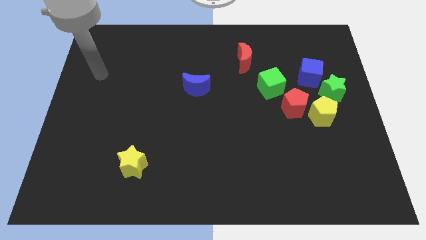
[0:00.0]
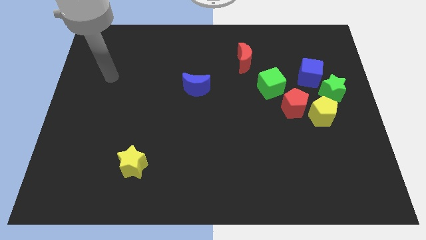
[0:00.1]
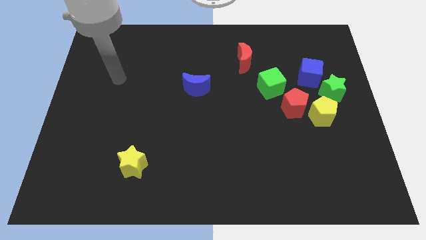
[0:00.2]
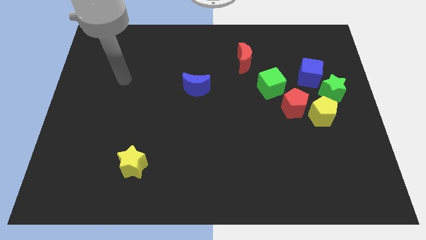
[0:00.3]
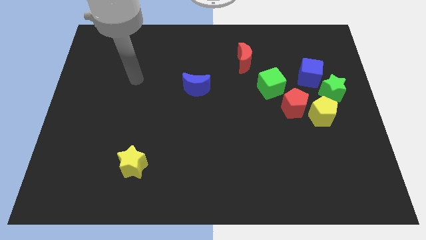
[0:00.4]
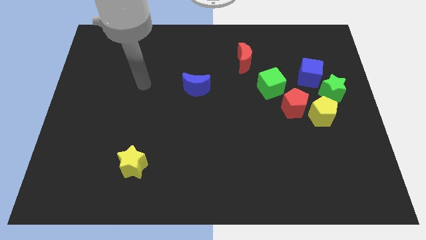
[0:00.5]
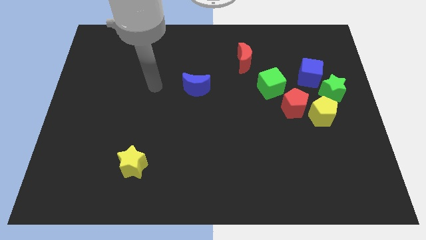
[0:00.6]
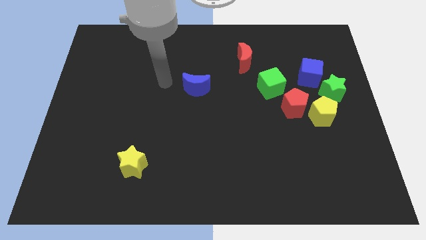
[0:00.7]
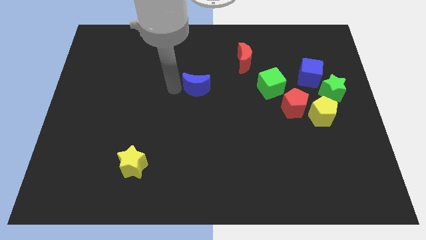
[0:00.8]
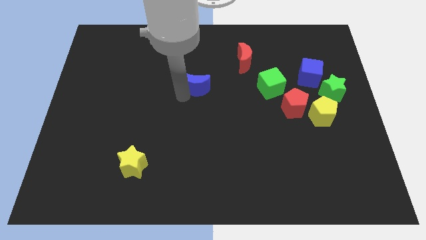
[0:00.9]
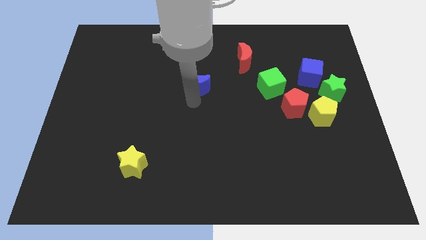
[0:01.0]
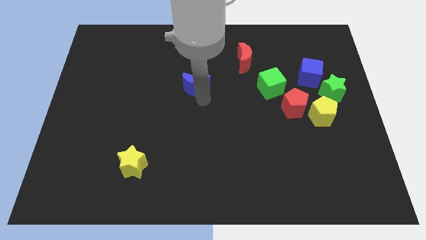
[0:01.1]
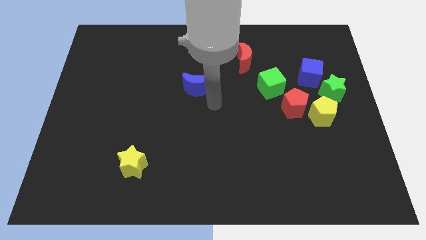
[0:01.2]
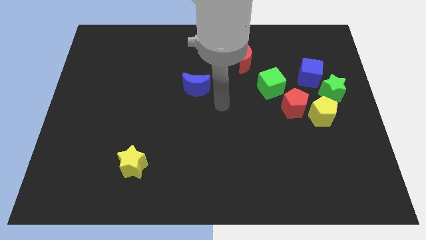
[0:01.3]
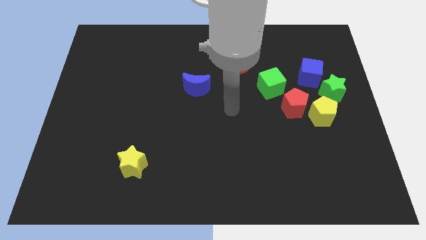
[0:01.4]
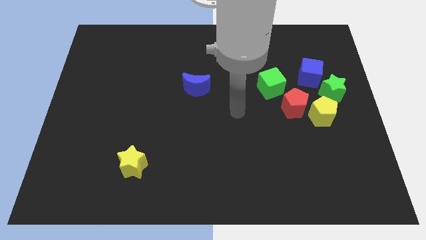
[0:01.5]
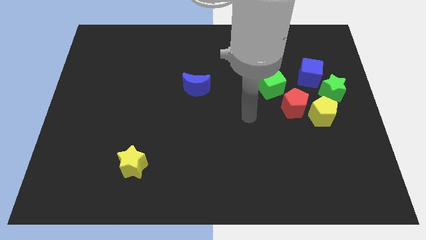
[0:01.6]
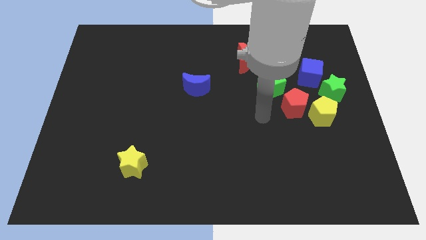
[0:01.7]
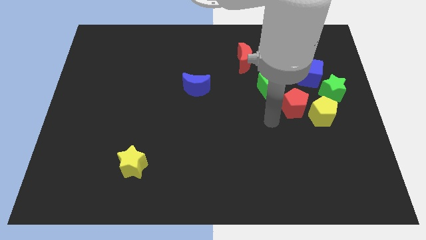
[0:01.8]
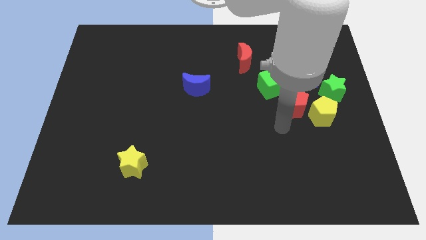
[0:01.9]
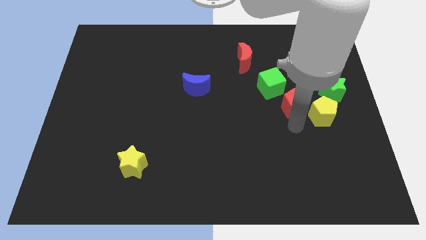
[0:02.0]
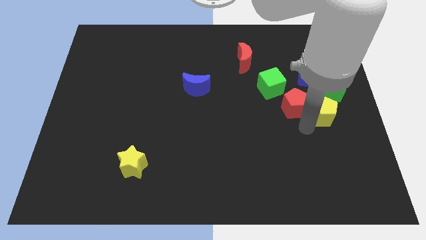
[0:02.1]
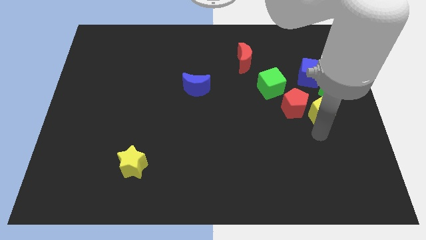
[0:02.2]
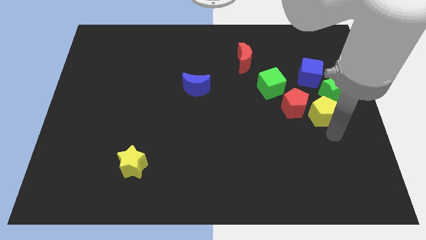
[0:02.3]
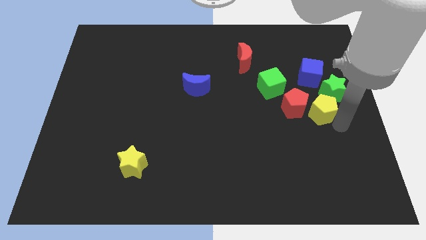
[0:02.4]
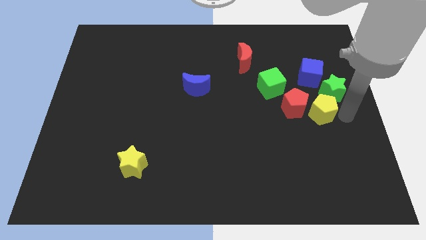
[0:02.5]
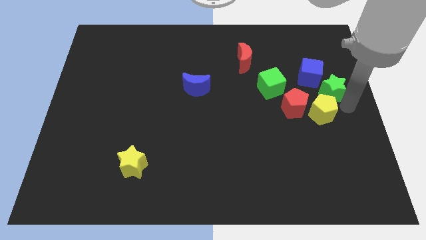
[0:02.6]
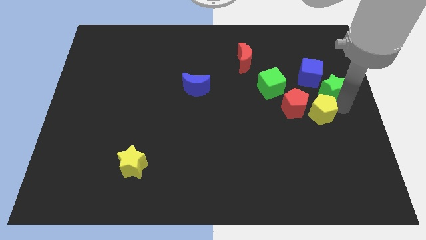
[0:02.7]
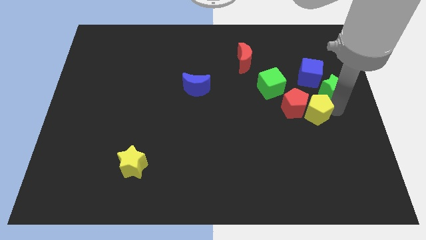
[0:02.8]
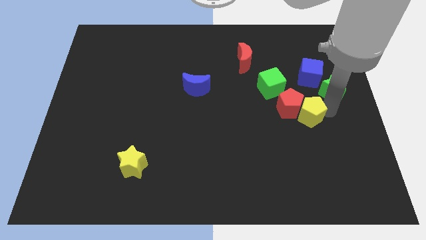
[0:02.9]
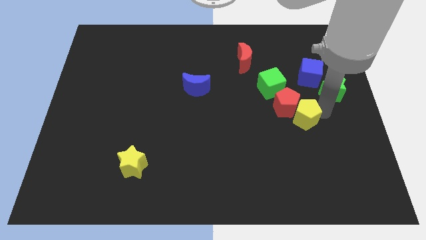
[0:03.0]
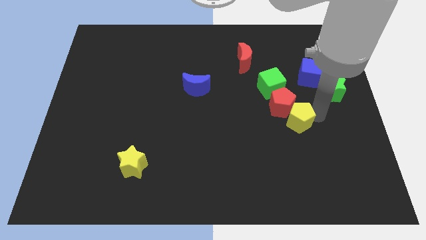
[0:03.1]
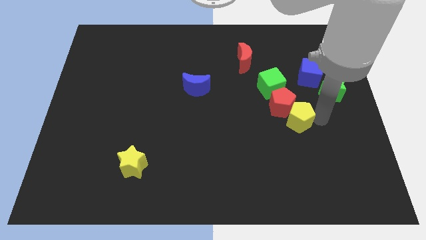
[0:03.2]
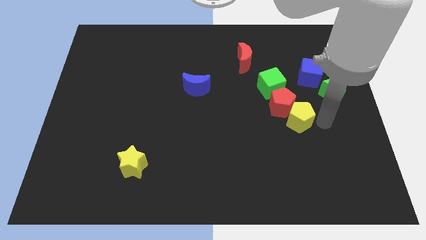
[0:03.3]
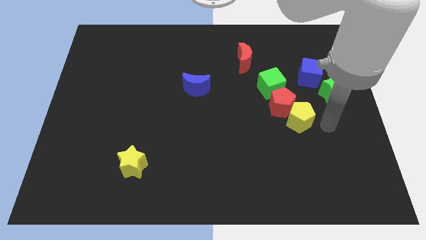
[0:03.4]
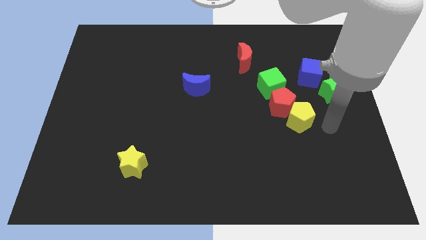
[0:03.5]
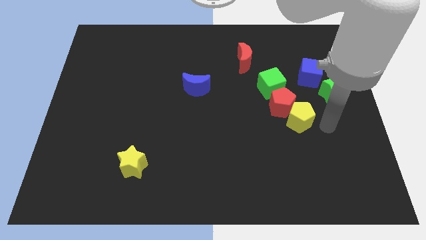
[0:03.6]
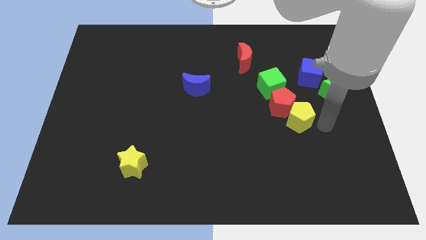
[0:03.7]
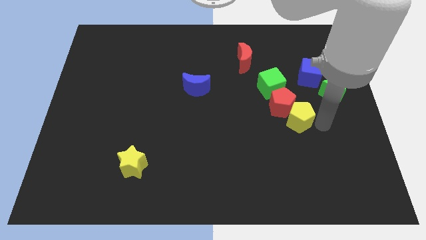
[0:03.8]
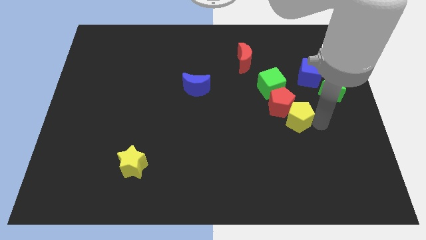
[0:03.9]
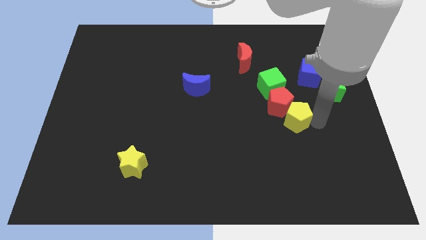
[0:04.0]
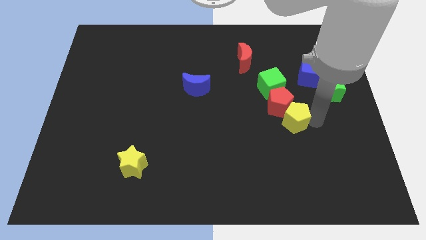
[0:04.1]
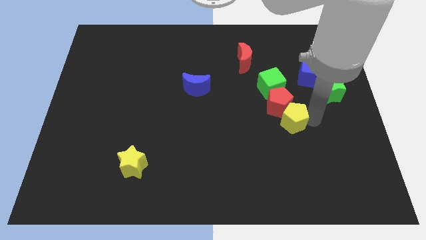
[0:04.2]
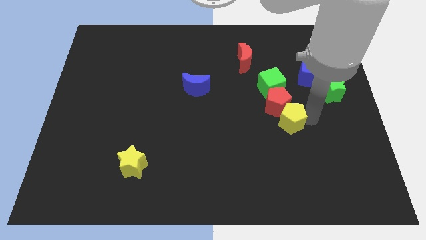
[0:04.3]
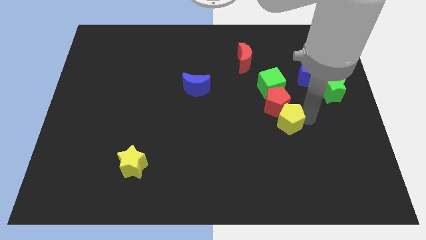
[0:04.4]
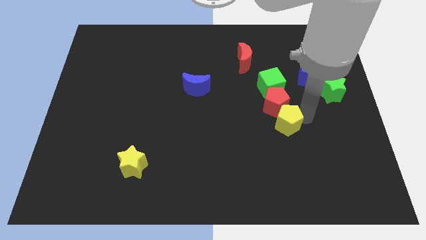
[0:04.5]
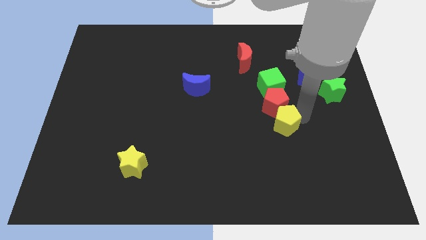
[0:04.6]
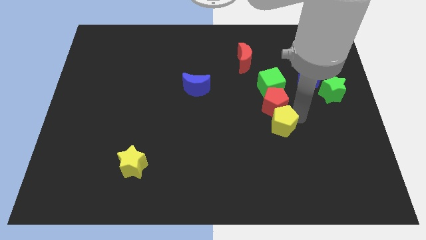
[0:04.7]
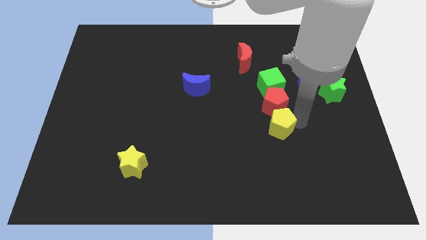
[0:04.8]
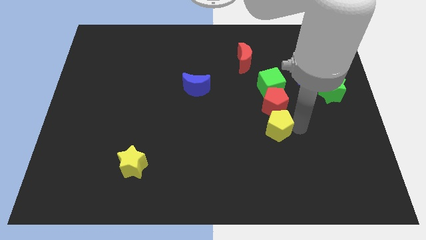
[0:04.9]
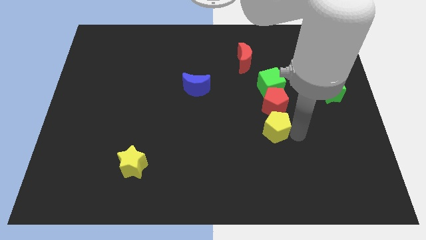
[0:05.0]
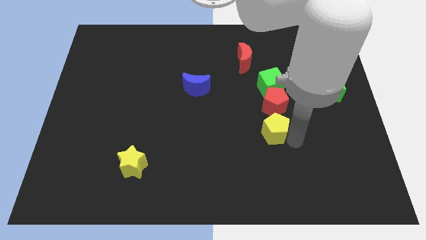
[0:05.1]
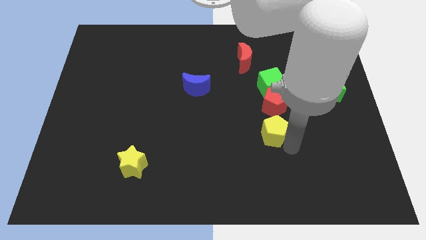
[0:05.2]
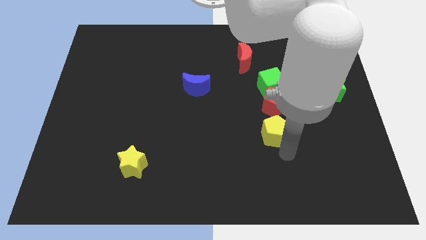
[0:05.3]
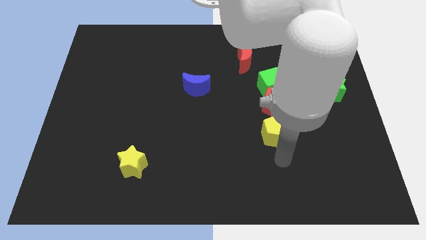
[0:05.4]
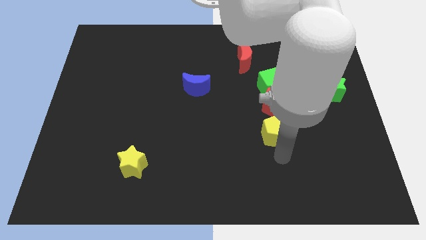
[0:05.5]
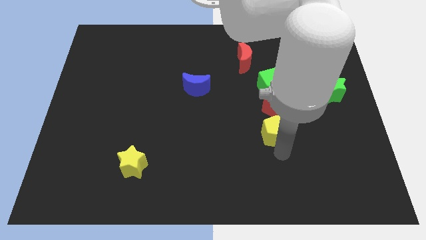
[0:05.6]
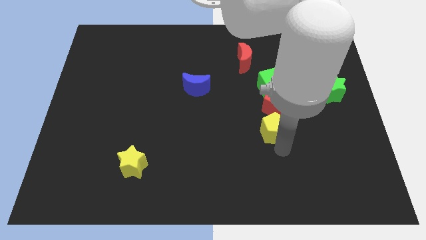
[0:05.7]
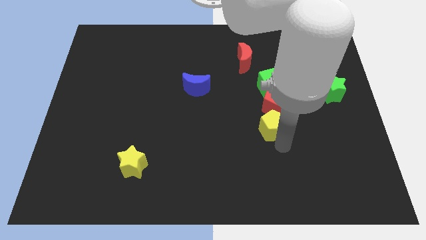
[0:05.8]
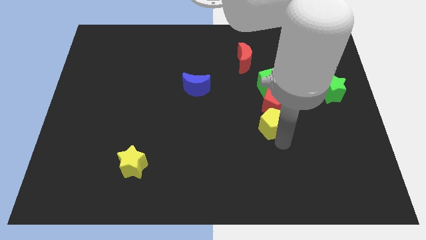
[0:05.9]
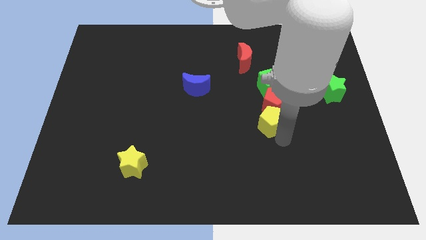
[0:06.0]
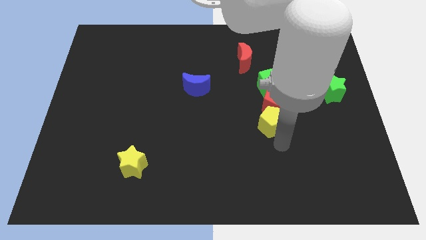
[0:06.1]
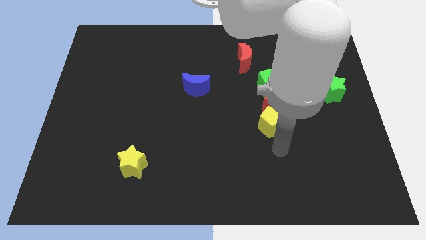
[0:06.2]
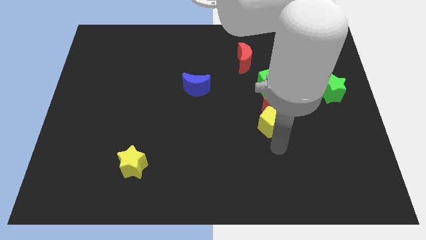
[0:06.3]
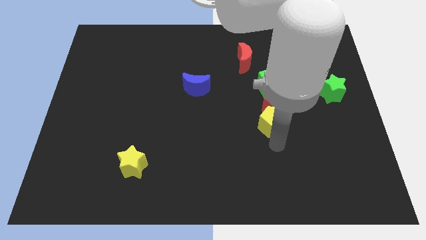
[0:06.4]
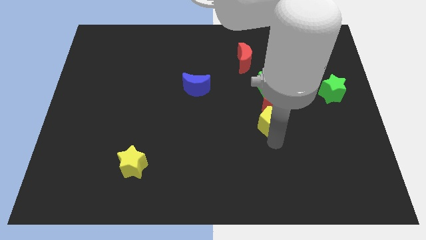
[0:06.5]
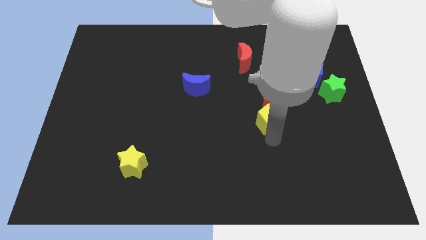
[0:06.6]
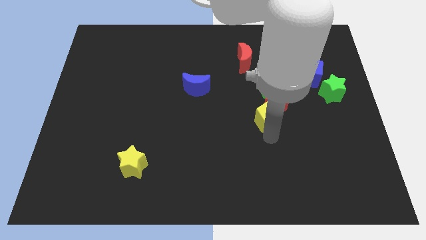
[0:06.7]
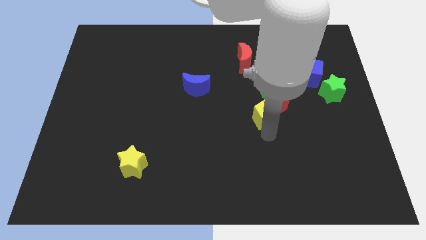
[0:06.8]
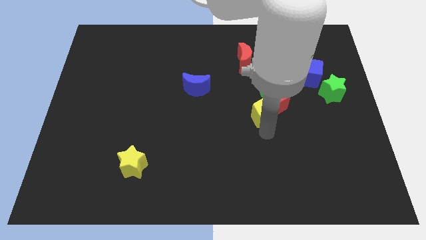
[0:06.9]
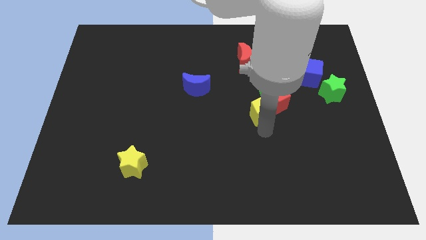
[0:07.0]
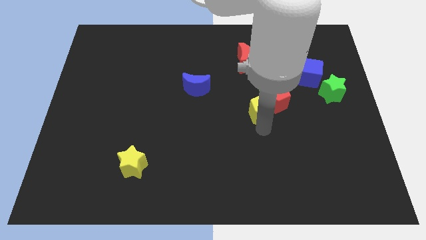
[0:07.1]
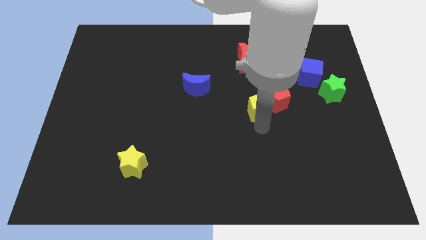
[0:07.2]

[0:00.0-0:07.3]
push the yellow pentagon slightly up and to the left diagonally

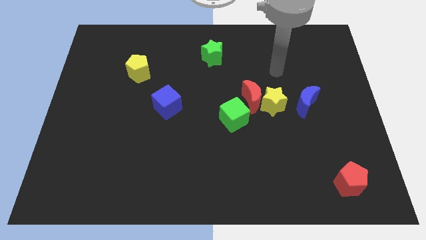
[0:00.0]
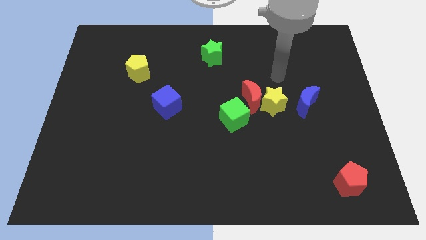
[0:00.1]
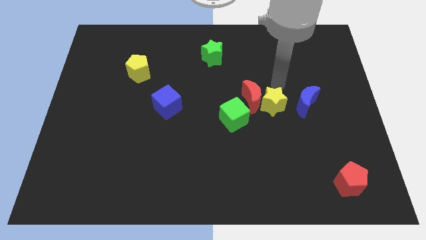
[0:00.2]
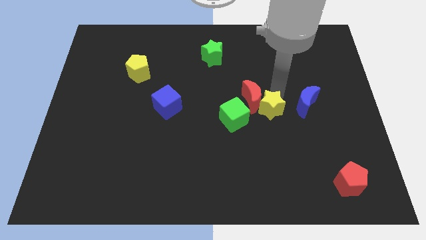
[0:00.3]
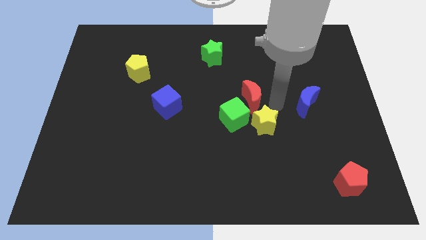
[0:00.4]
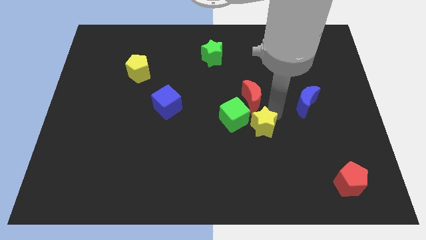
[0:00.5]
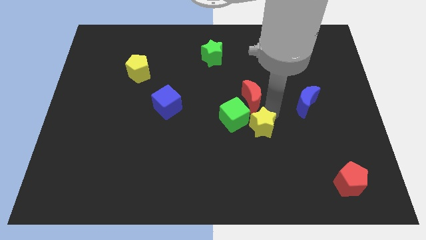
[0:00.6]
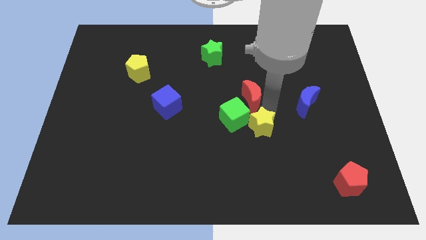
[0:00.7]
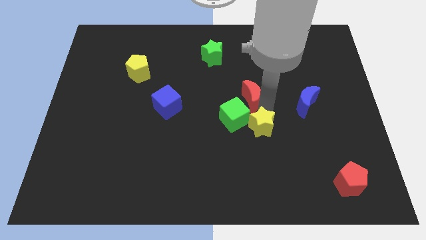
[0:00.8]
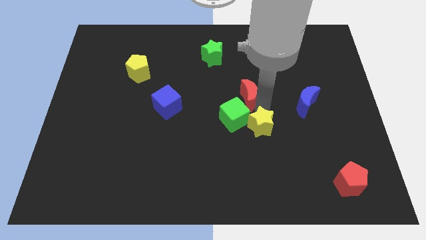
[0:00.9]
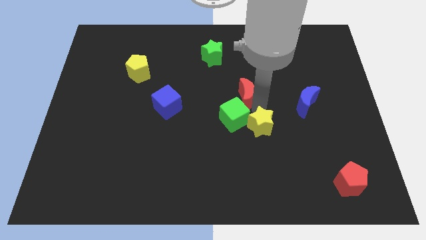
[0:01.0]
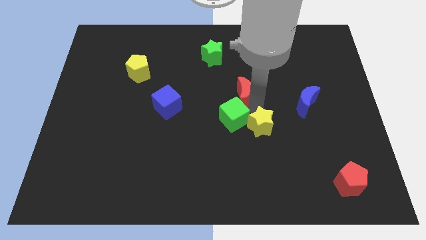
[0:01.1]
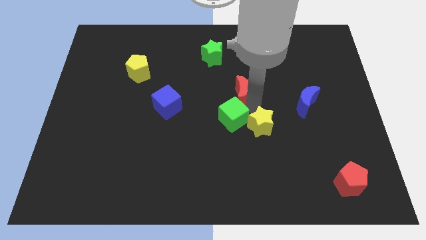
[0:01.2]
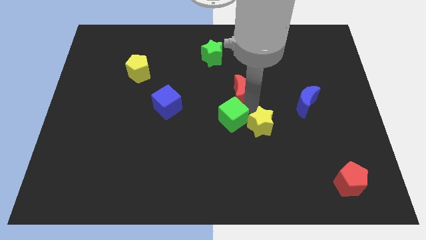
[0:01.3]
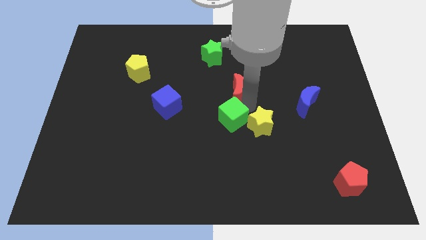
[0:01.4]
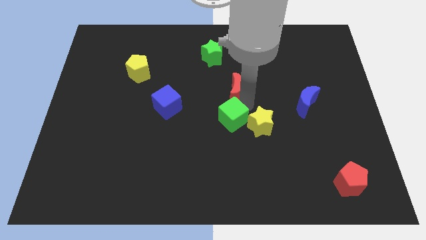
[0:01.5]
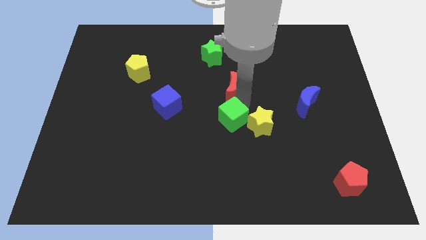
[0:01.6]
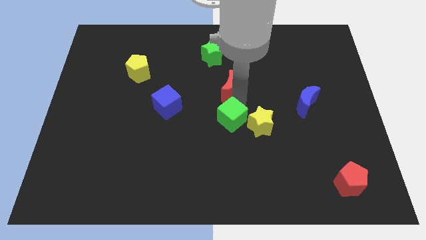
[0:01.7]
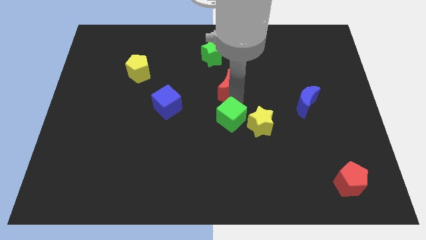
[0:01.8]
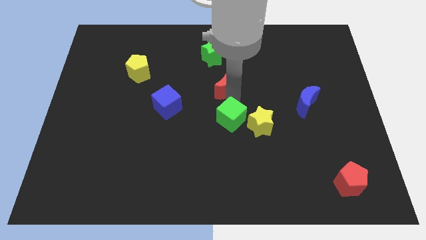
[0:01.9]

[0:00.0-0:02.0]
slightly move the red moon up and to the left
